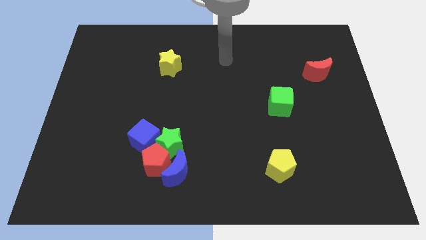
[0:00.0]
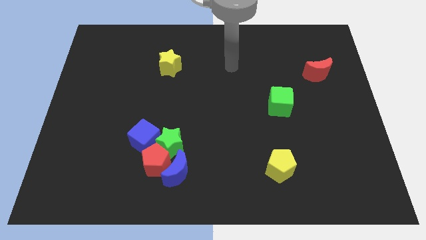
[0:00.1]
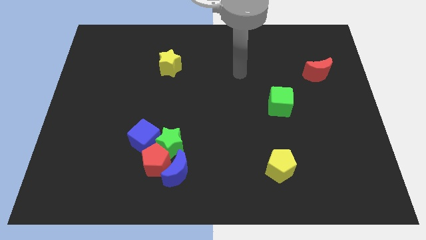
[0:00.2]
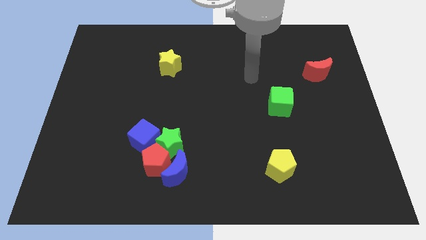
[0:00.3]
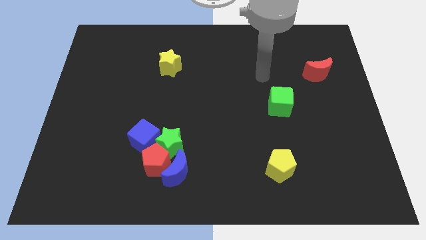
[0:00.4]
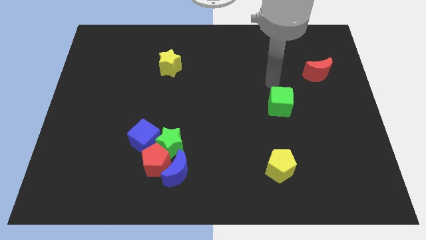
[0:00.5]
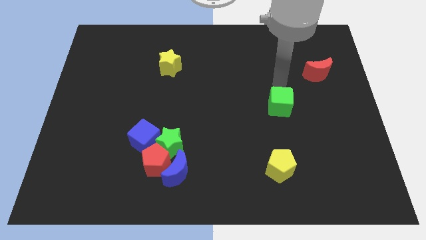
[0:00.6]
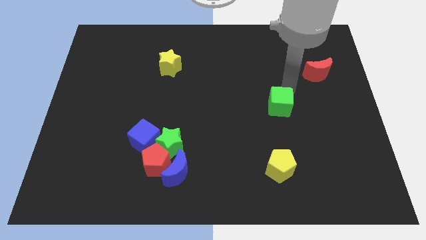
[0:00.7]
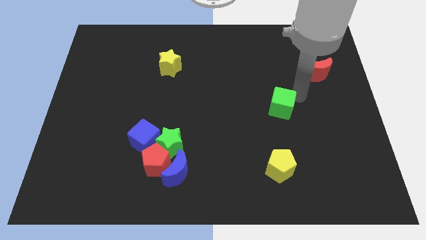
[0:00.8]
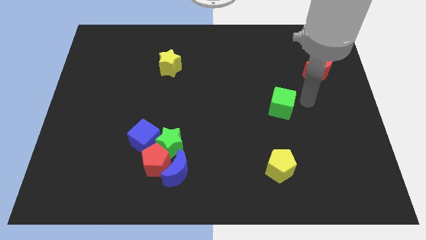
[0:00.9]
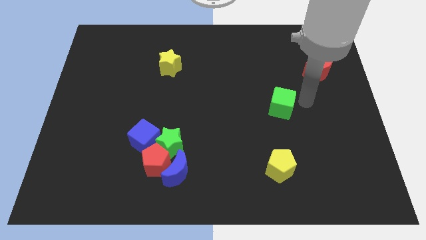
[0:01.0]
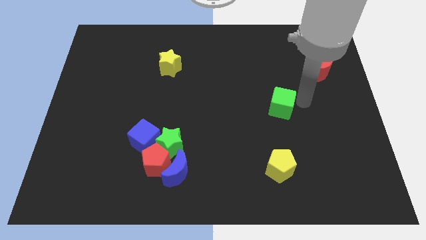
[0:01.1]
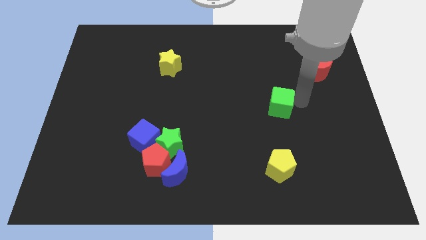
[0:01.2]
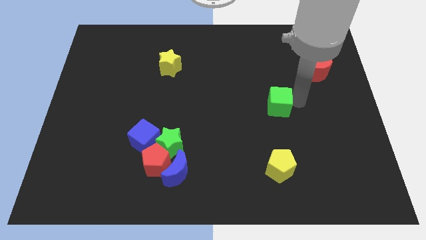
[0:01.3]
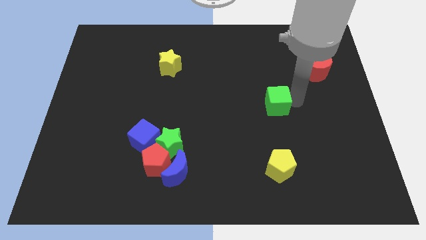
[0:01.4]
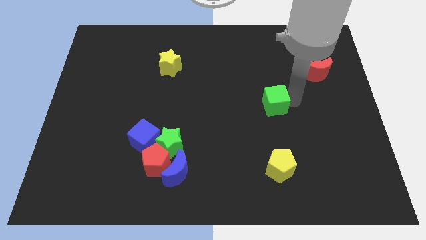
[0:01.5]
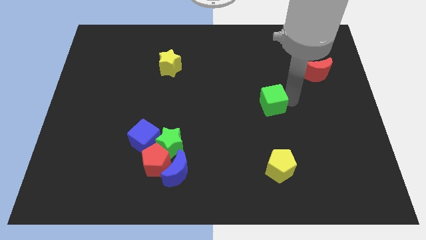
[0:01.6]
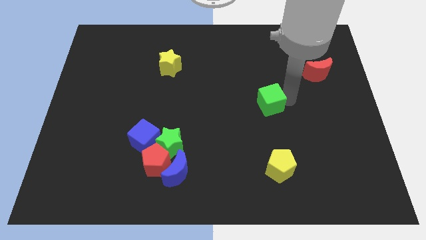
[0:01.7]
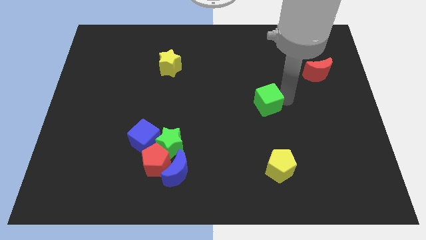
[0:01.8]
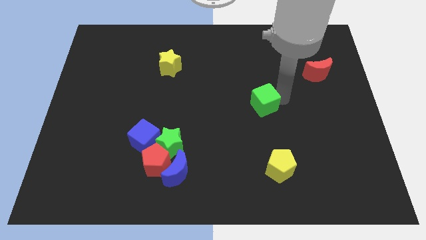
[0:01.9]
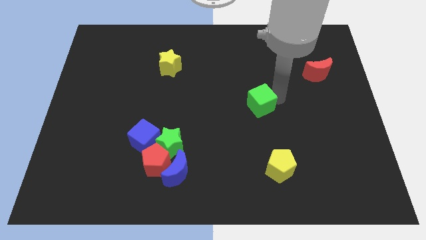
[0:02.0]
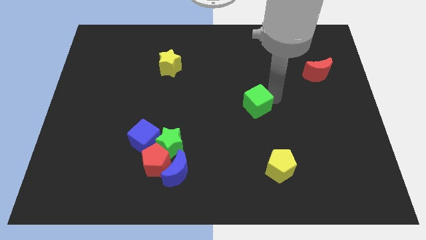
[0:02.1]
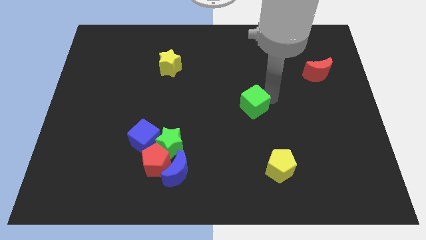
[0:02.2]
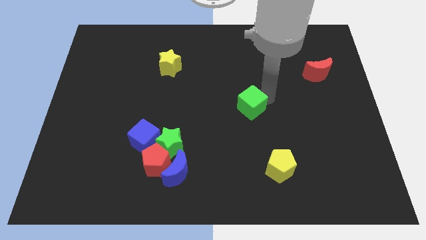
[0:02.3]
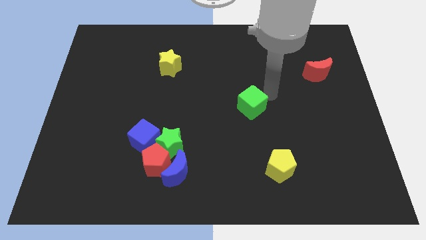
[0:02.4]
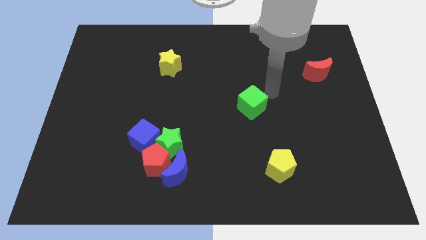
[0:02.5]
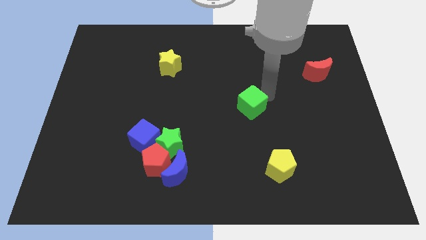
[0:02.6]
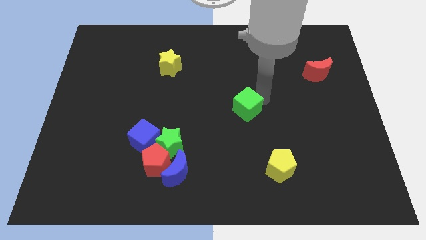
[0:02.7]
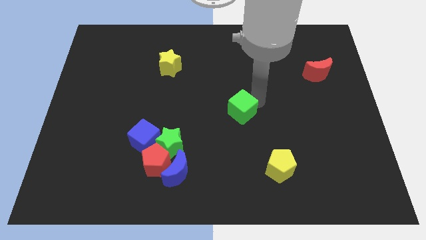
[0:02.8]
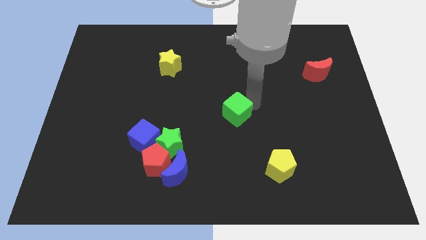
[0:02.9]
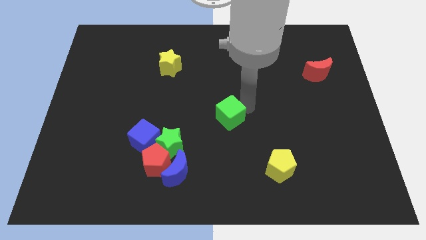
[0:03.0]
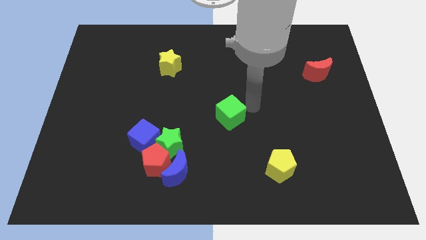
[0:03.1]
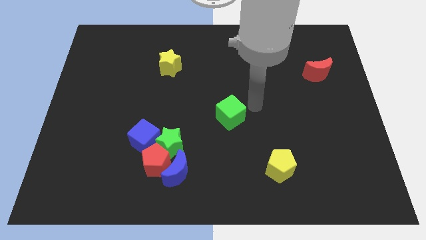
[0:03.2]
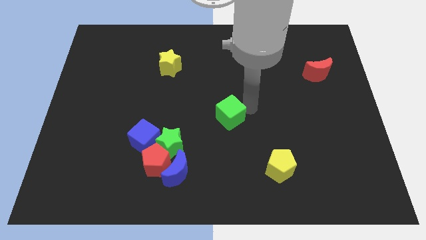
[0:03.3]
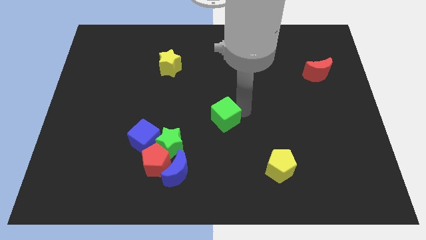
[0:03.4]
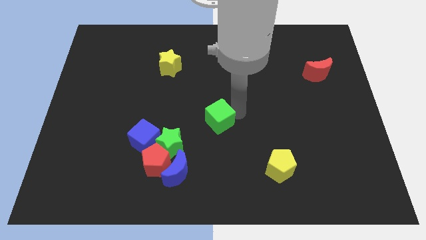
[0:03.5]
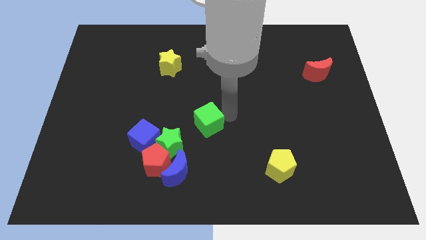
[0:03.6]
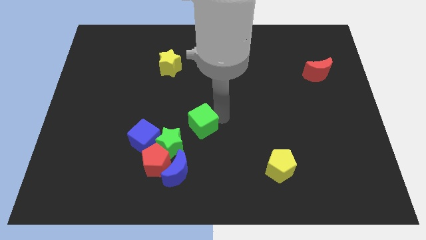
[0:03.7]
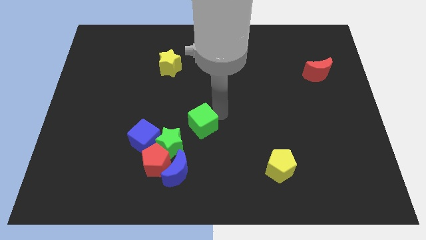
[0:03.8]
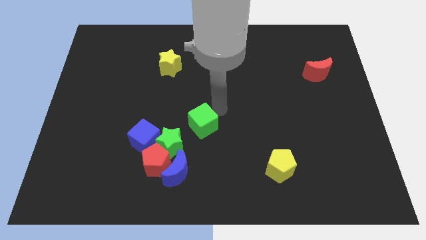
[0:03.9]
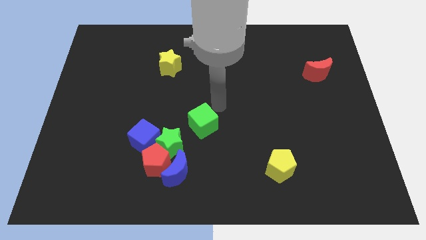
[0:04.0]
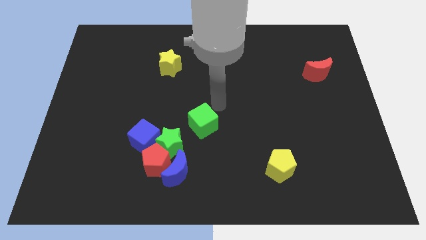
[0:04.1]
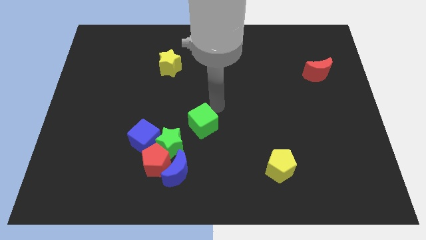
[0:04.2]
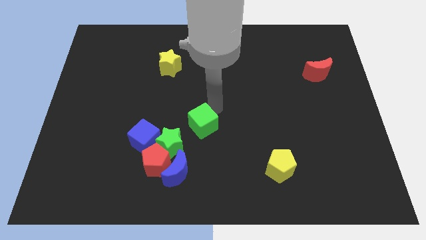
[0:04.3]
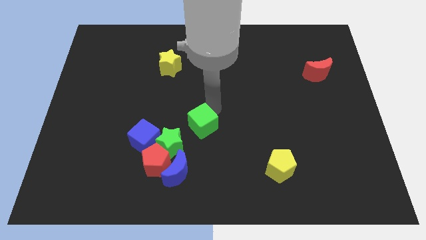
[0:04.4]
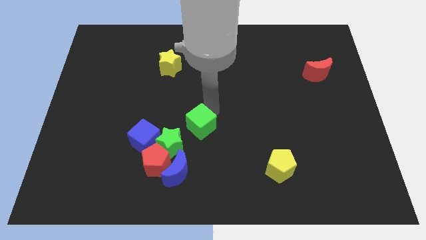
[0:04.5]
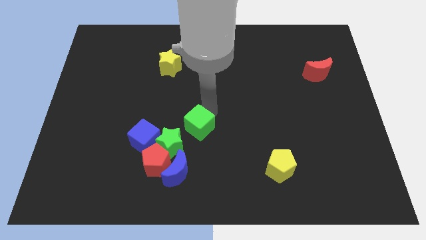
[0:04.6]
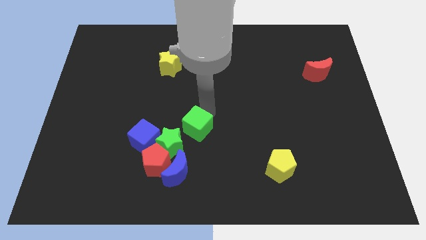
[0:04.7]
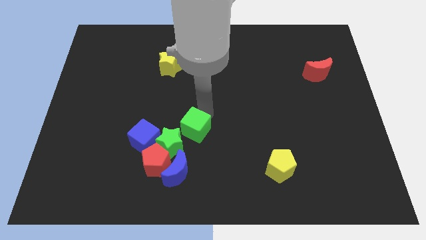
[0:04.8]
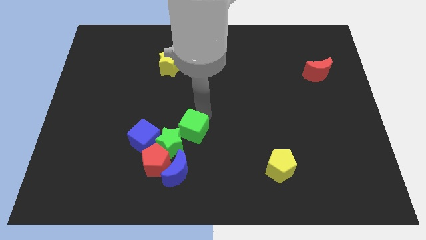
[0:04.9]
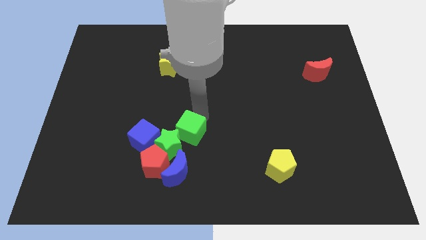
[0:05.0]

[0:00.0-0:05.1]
slide the green cube next to the green star

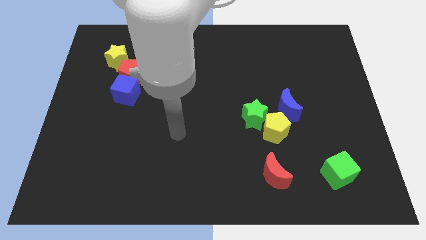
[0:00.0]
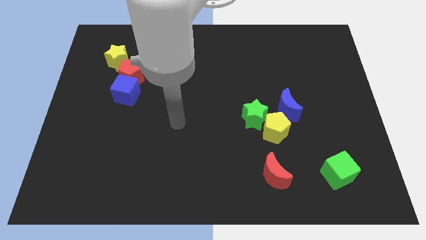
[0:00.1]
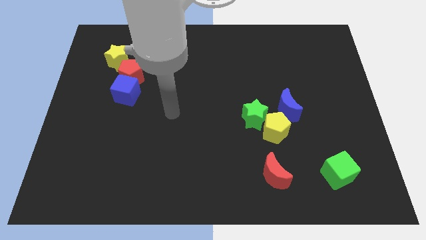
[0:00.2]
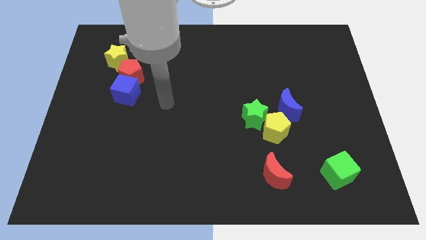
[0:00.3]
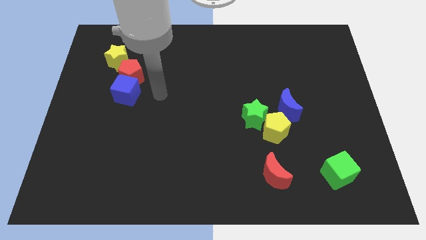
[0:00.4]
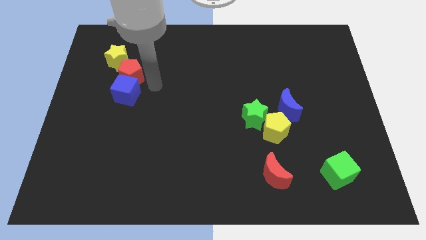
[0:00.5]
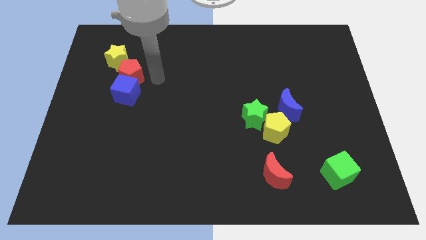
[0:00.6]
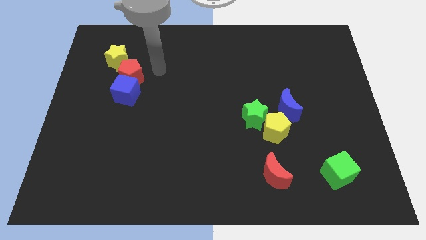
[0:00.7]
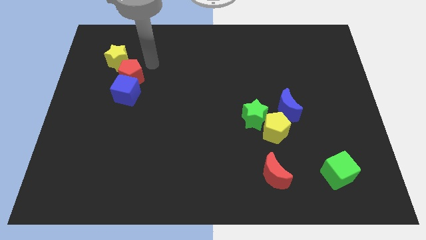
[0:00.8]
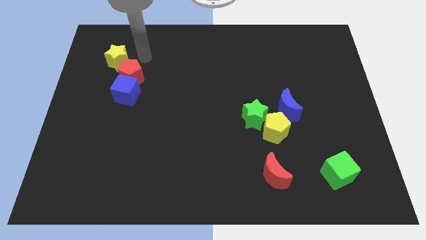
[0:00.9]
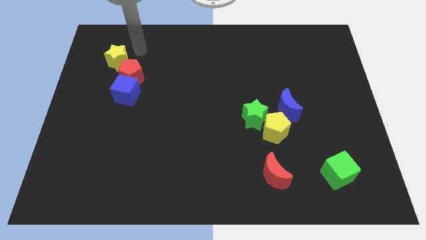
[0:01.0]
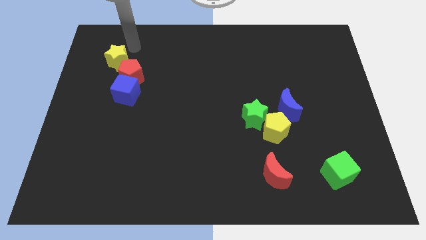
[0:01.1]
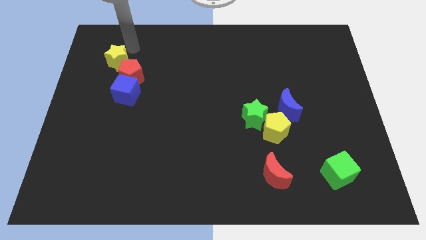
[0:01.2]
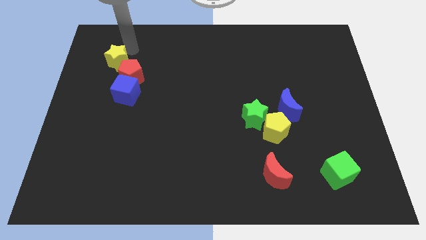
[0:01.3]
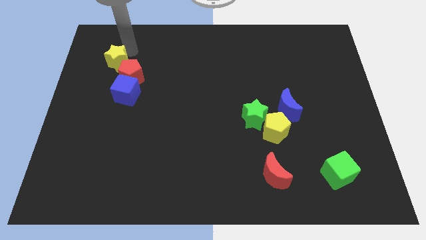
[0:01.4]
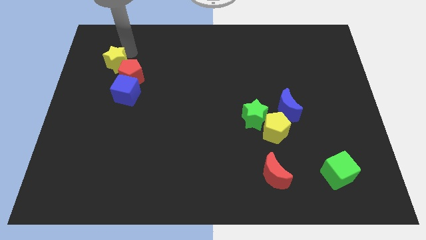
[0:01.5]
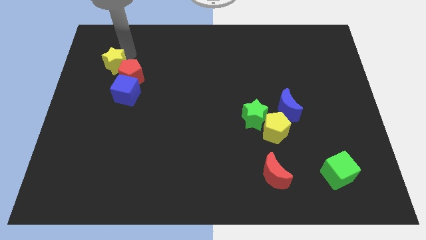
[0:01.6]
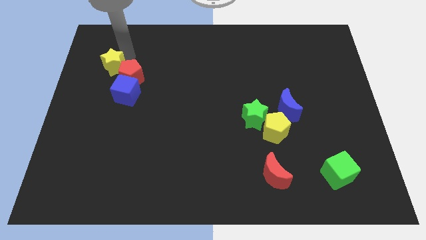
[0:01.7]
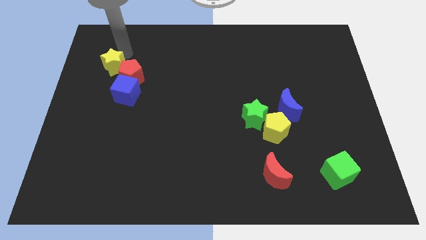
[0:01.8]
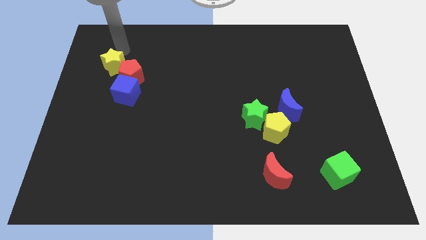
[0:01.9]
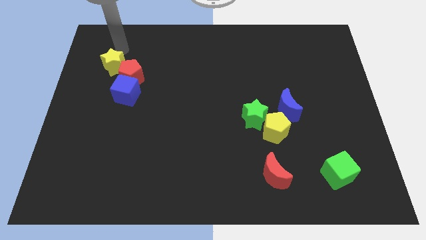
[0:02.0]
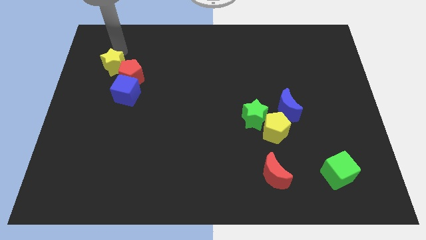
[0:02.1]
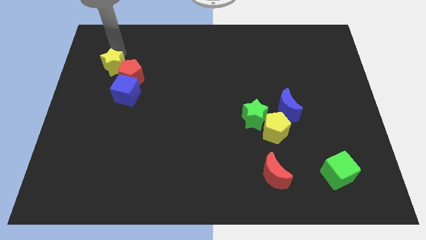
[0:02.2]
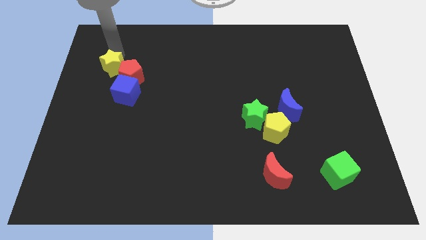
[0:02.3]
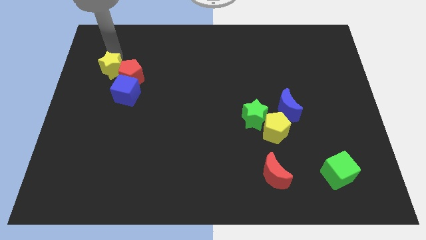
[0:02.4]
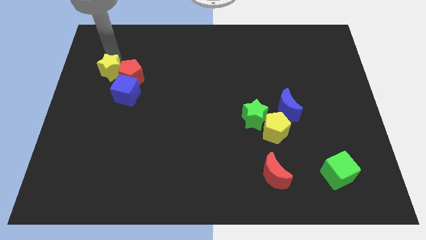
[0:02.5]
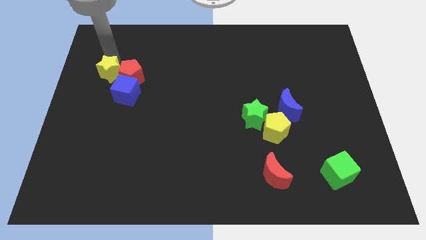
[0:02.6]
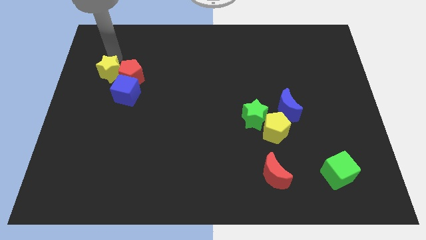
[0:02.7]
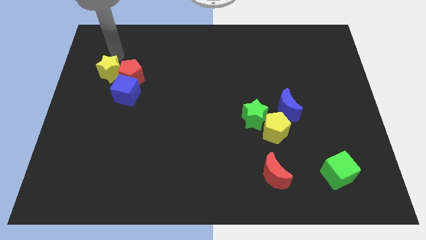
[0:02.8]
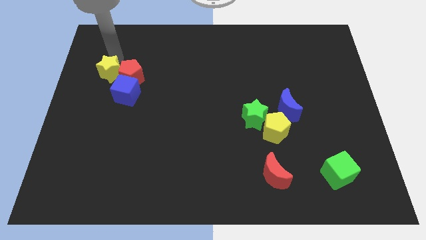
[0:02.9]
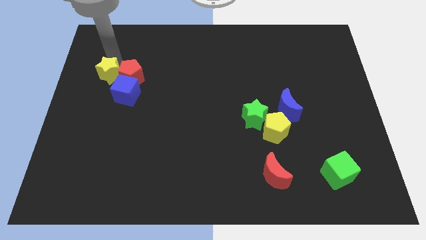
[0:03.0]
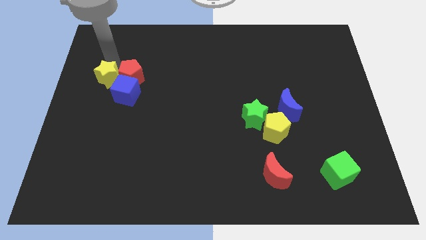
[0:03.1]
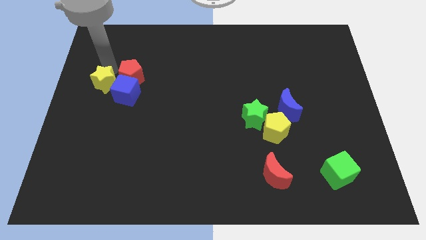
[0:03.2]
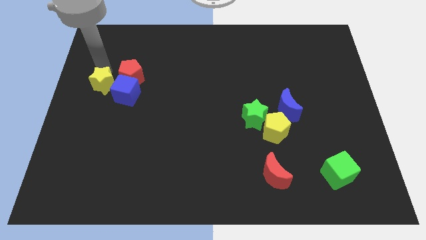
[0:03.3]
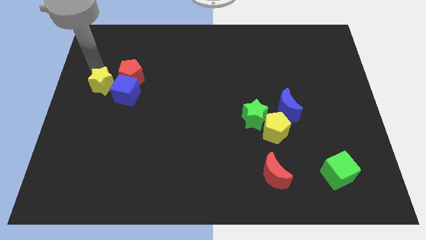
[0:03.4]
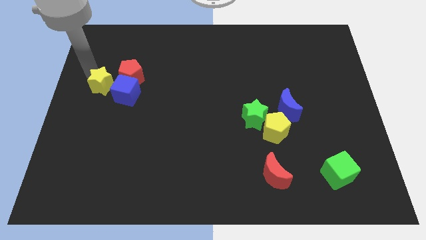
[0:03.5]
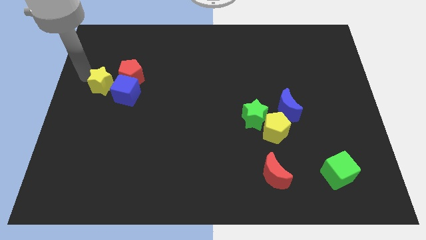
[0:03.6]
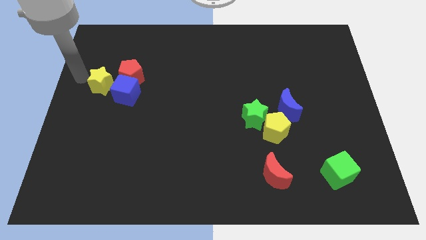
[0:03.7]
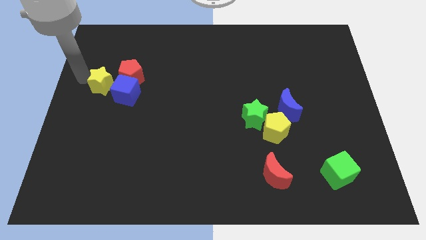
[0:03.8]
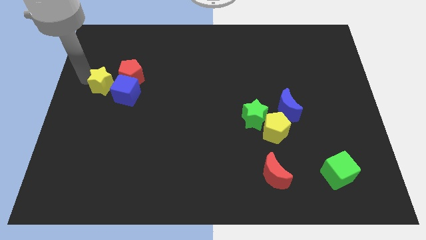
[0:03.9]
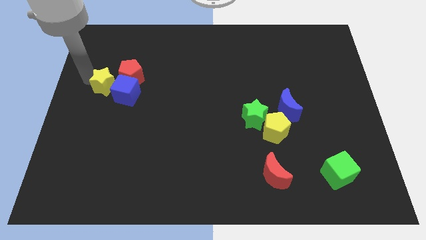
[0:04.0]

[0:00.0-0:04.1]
put the yellow star close to the blue cube
